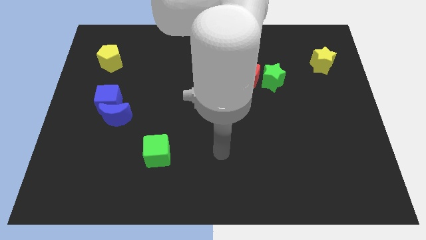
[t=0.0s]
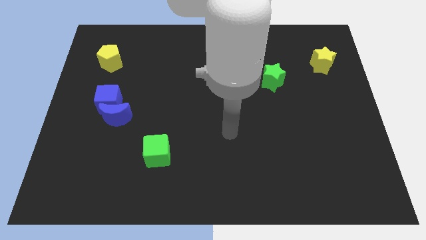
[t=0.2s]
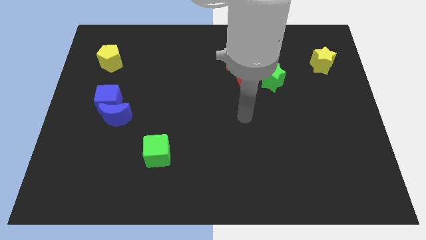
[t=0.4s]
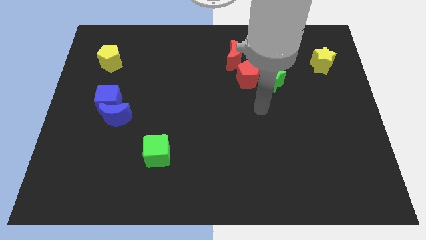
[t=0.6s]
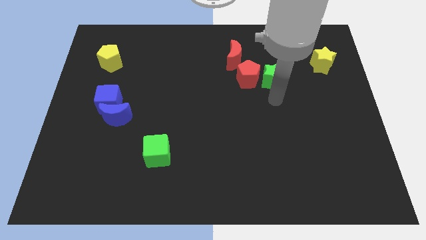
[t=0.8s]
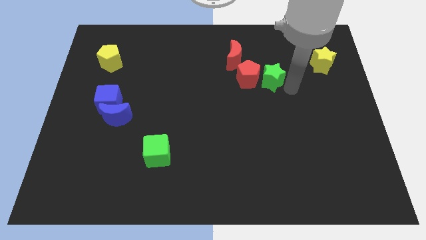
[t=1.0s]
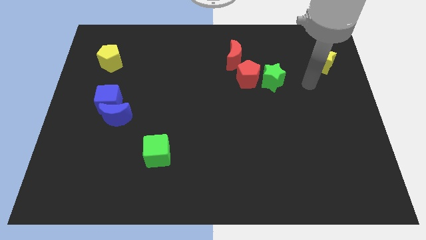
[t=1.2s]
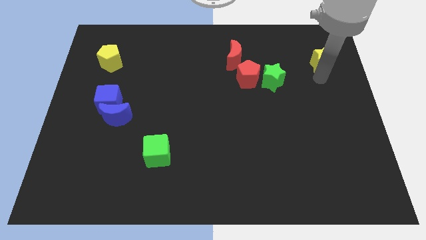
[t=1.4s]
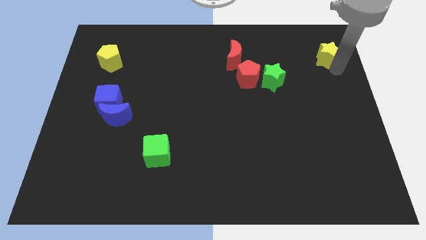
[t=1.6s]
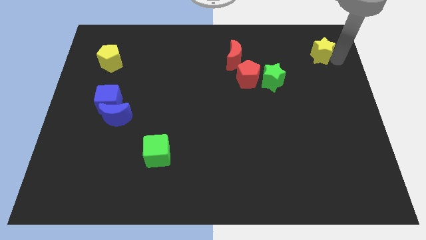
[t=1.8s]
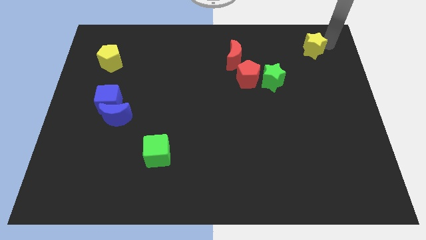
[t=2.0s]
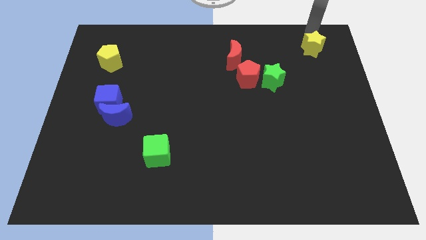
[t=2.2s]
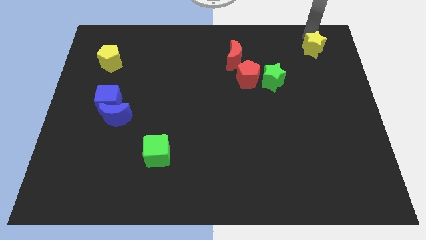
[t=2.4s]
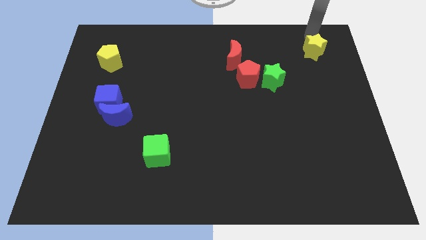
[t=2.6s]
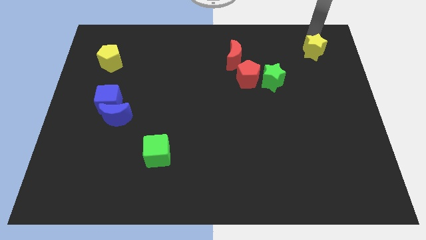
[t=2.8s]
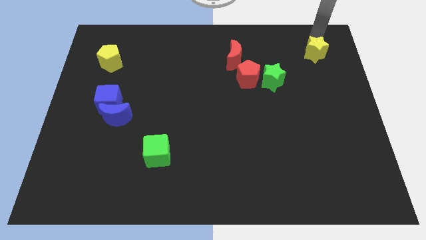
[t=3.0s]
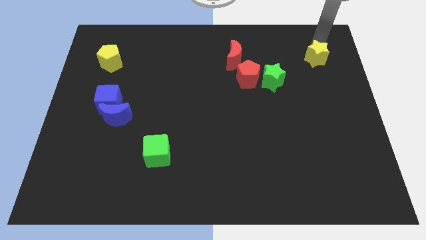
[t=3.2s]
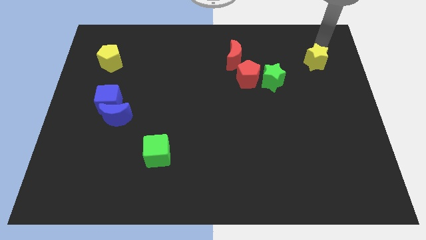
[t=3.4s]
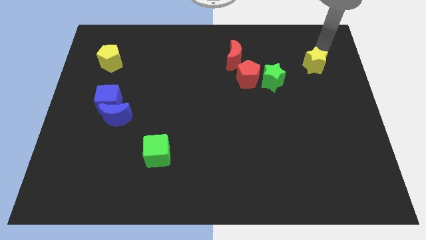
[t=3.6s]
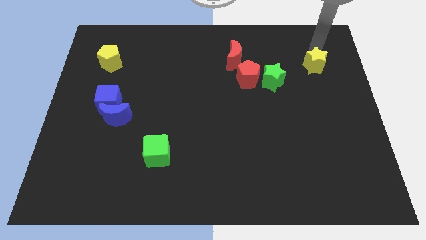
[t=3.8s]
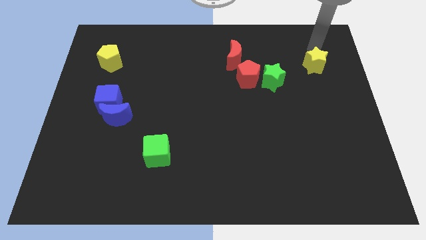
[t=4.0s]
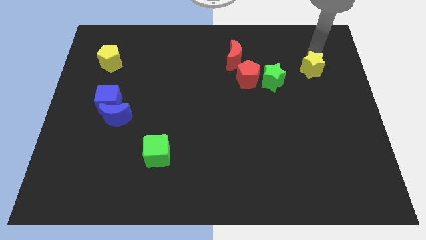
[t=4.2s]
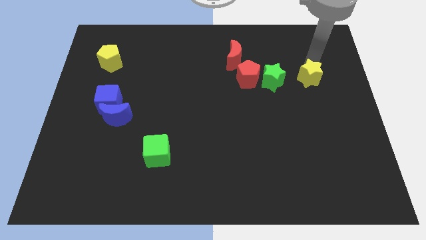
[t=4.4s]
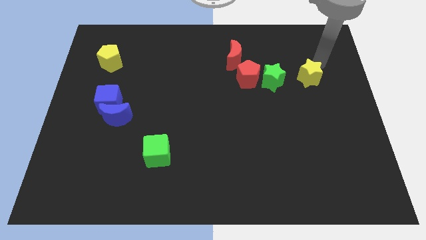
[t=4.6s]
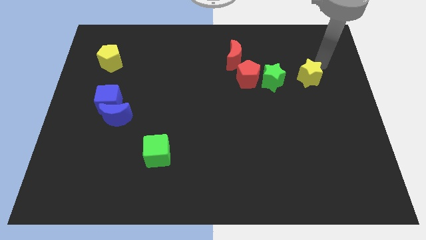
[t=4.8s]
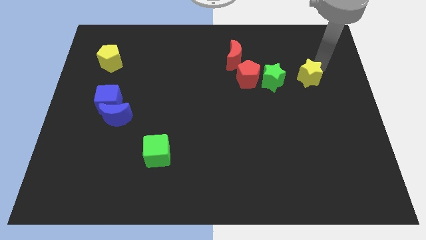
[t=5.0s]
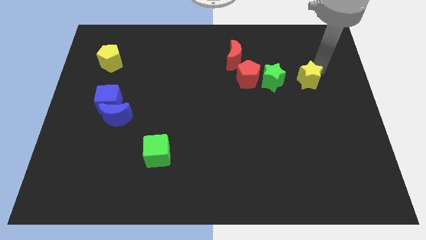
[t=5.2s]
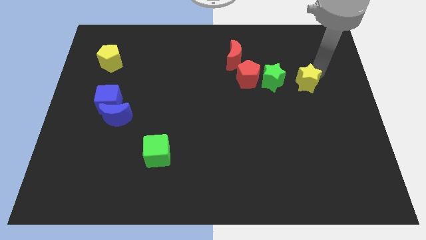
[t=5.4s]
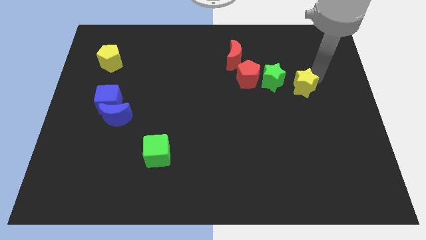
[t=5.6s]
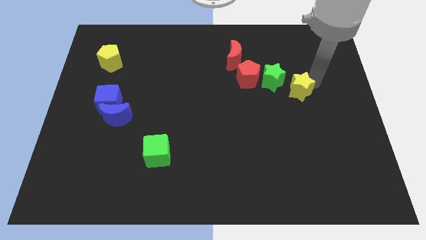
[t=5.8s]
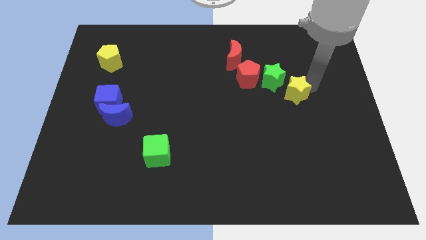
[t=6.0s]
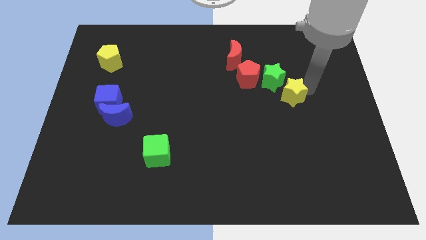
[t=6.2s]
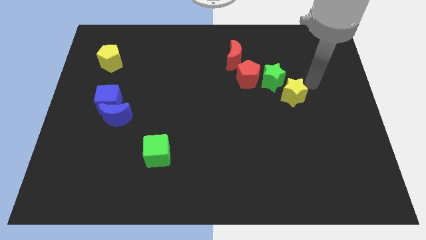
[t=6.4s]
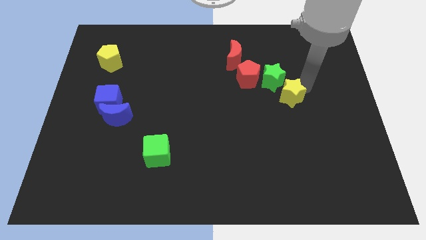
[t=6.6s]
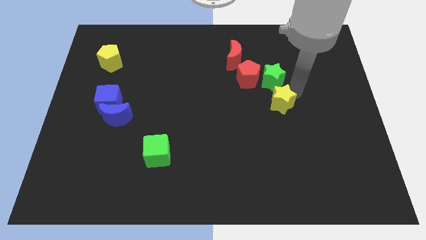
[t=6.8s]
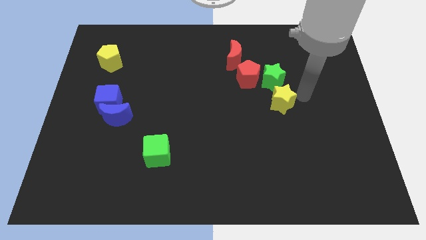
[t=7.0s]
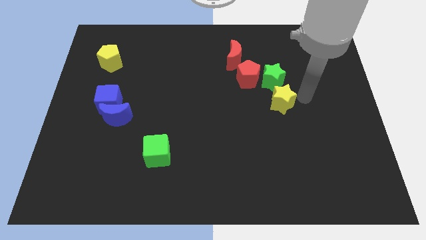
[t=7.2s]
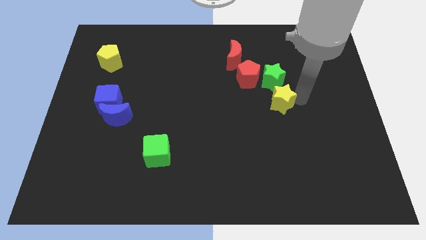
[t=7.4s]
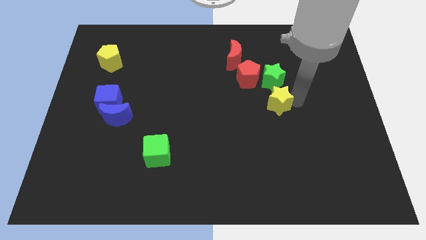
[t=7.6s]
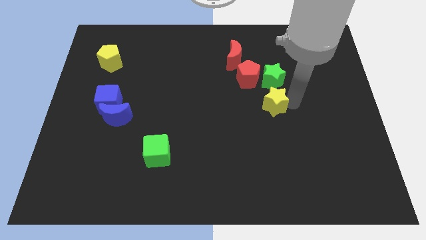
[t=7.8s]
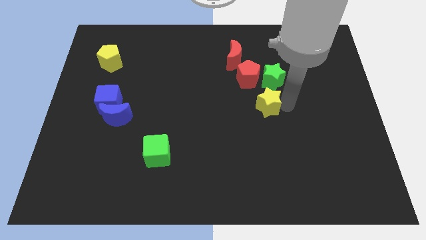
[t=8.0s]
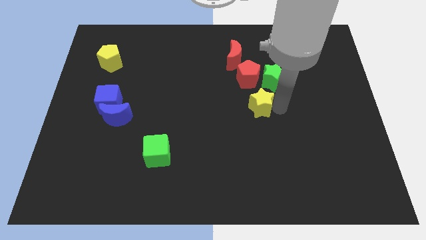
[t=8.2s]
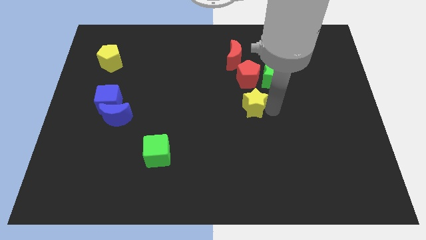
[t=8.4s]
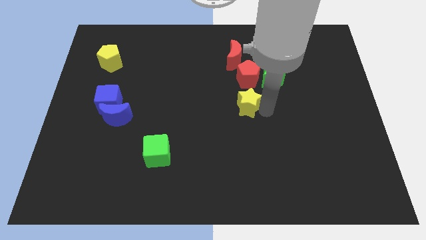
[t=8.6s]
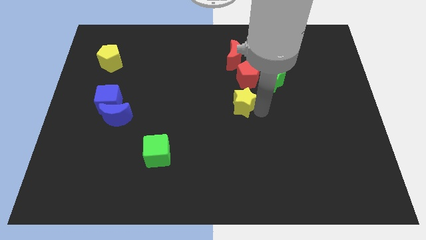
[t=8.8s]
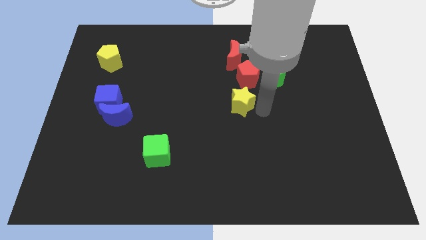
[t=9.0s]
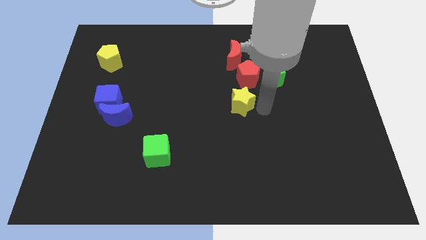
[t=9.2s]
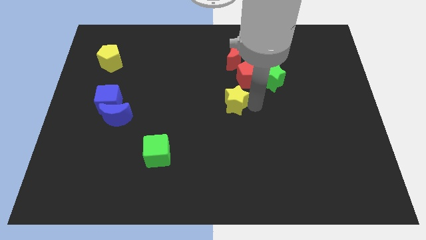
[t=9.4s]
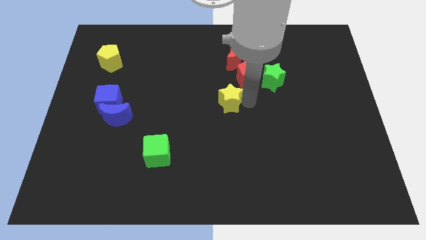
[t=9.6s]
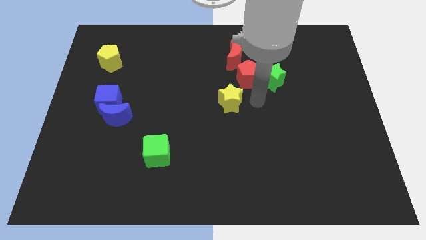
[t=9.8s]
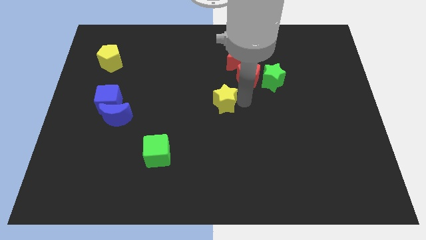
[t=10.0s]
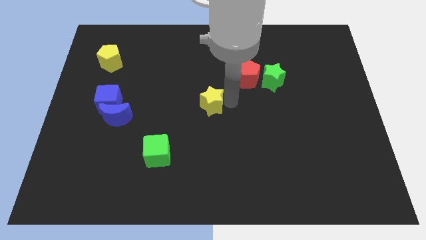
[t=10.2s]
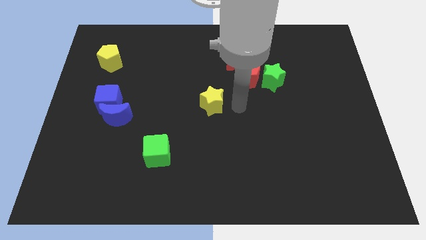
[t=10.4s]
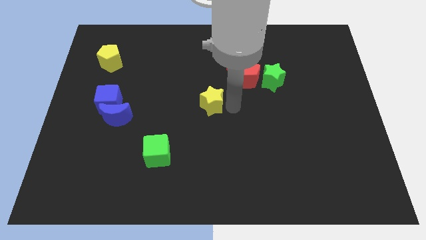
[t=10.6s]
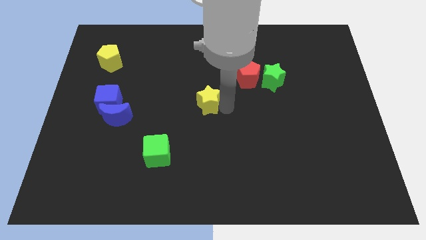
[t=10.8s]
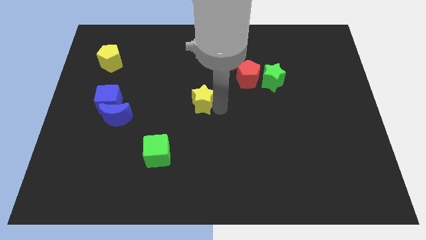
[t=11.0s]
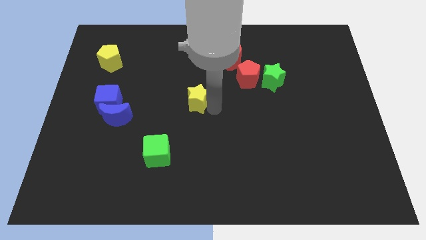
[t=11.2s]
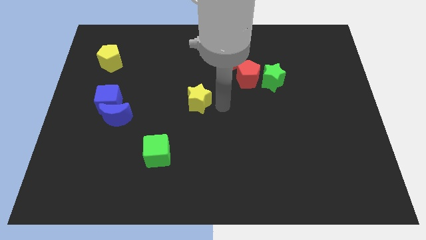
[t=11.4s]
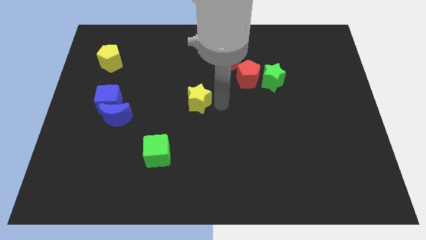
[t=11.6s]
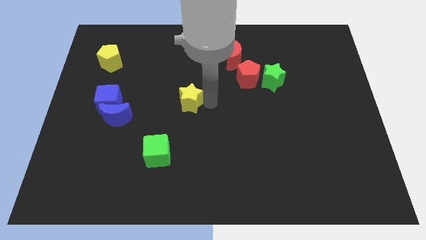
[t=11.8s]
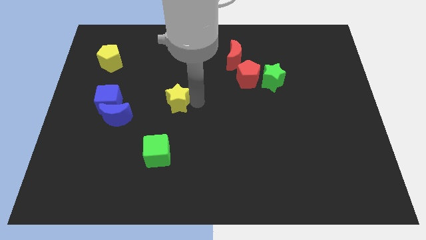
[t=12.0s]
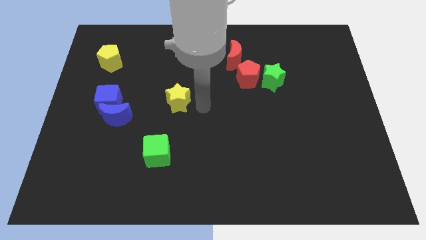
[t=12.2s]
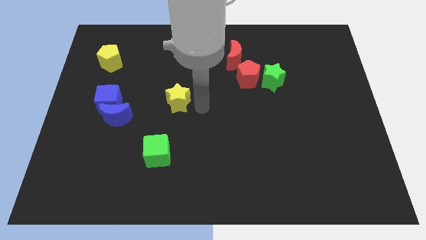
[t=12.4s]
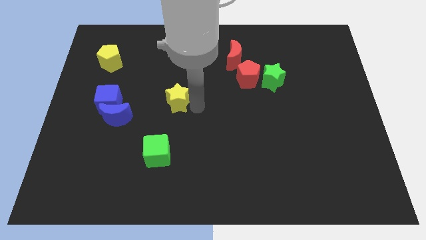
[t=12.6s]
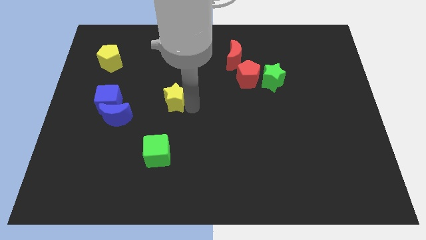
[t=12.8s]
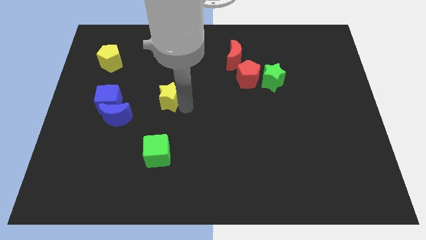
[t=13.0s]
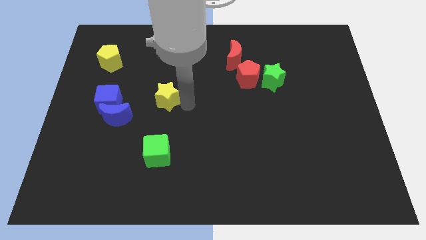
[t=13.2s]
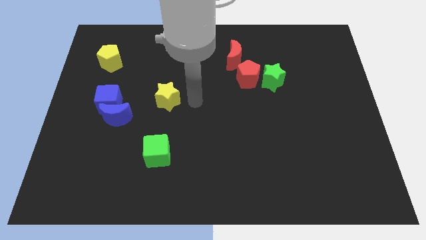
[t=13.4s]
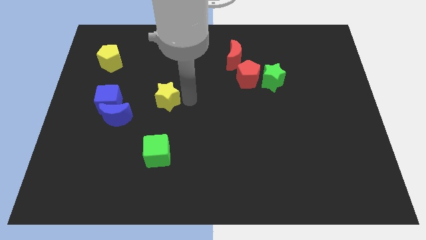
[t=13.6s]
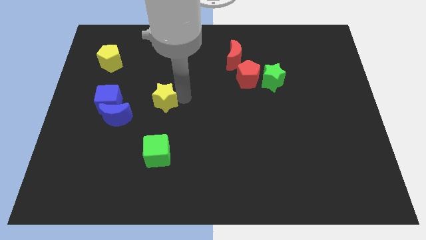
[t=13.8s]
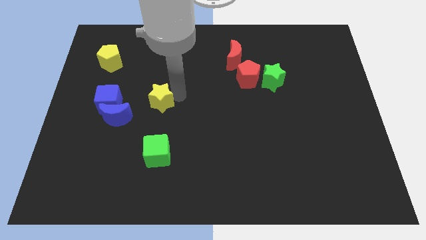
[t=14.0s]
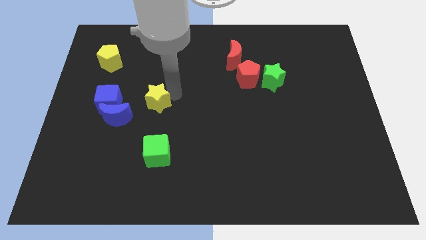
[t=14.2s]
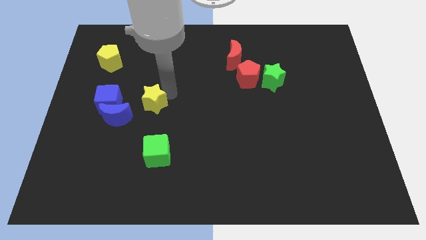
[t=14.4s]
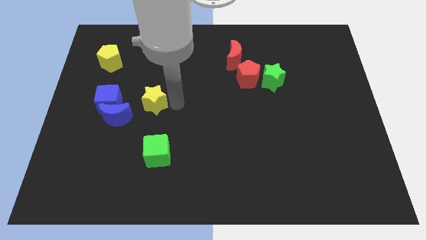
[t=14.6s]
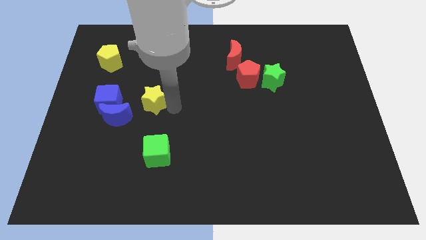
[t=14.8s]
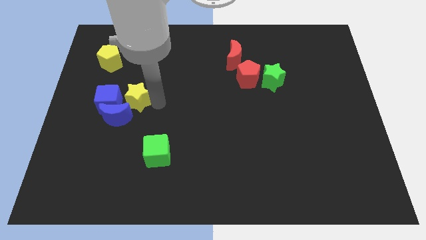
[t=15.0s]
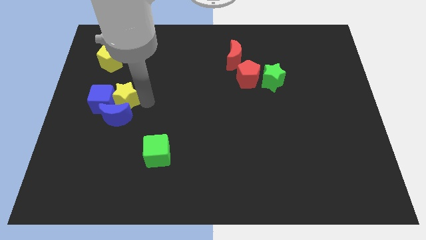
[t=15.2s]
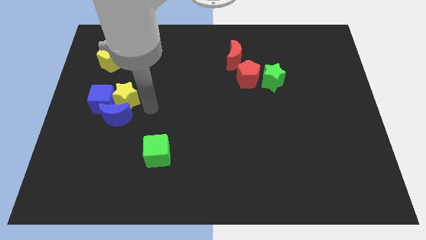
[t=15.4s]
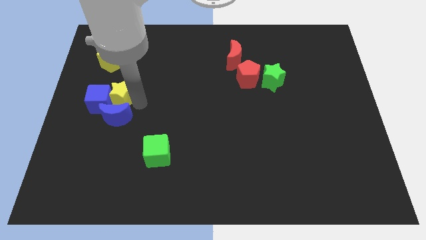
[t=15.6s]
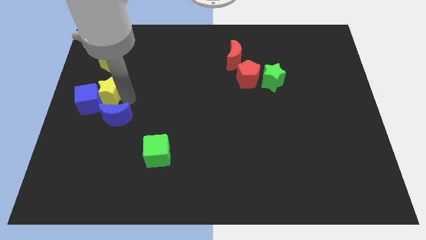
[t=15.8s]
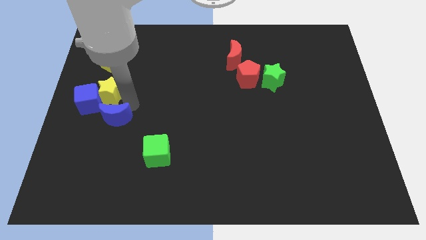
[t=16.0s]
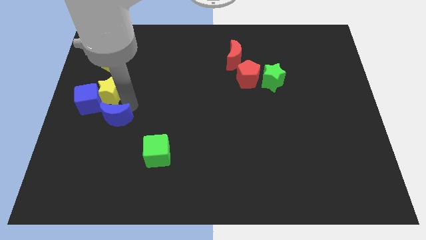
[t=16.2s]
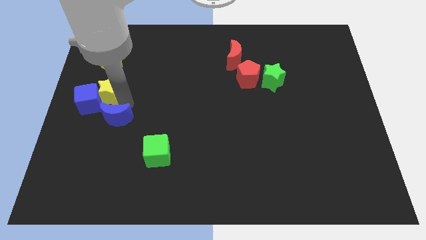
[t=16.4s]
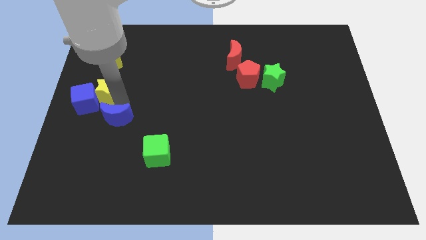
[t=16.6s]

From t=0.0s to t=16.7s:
move the yellow star to the left side
